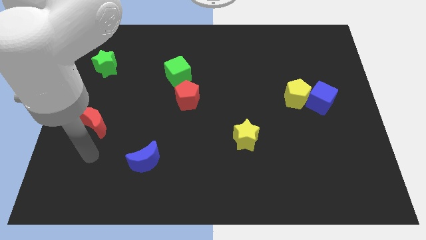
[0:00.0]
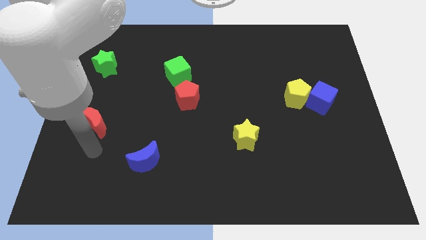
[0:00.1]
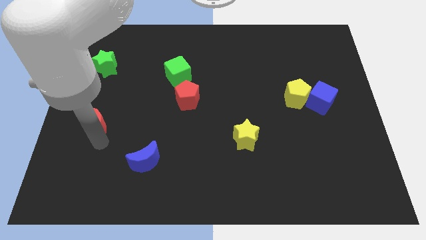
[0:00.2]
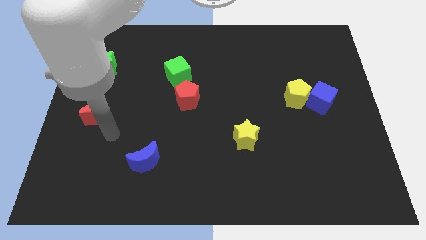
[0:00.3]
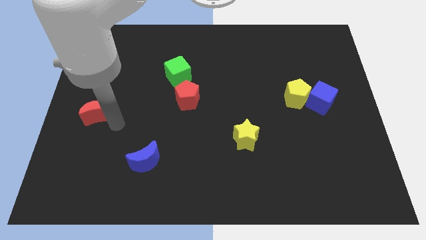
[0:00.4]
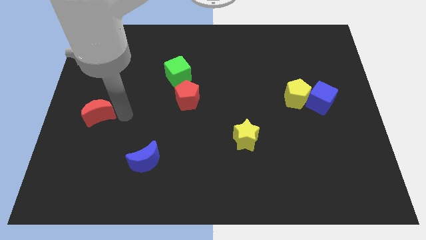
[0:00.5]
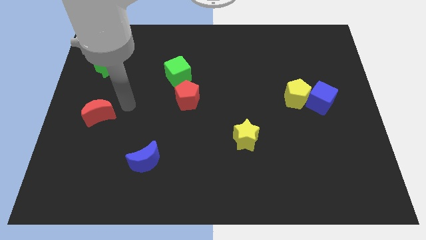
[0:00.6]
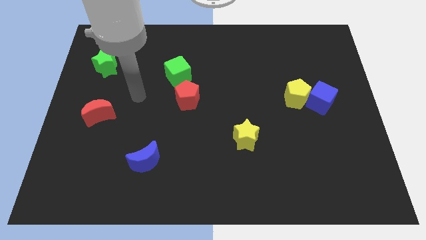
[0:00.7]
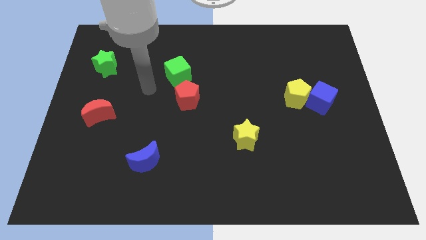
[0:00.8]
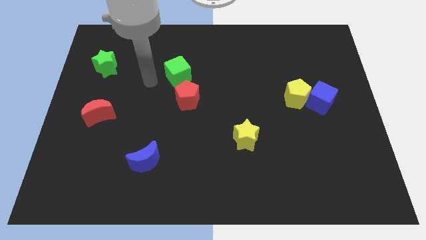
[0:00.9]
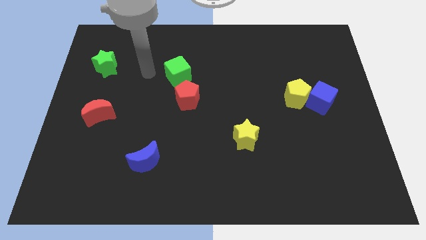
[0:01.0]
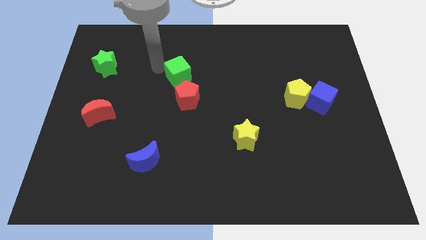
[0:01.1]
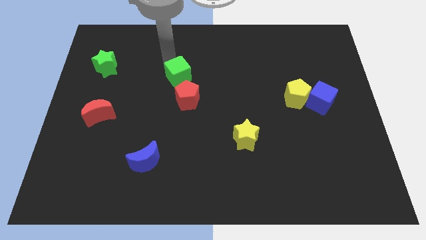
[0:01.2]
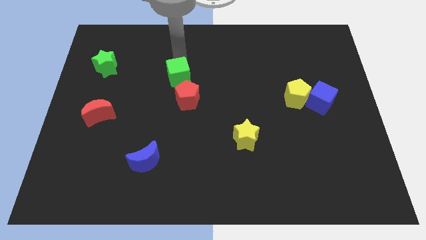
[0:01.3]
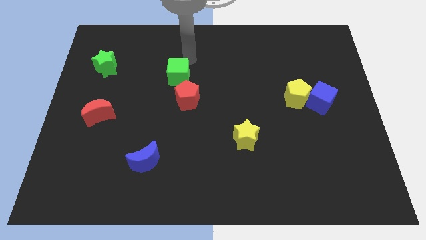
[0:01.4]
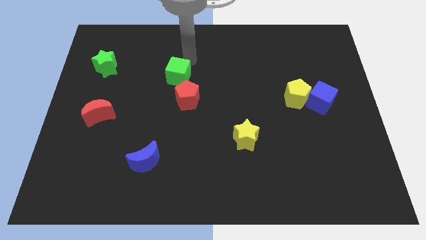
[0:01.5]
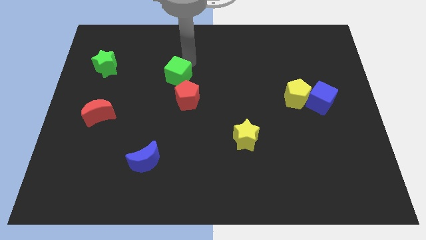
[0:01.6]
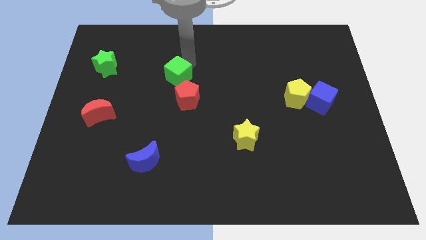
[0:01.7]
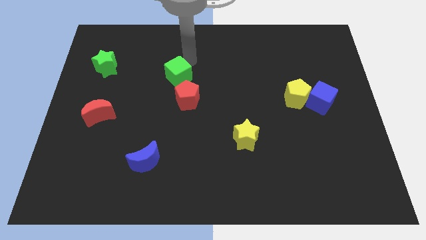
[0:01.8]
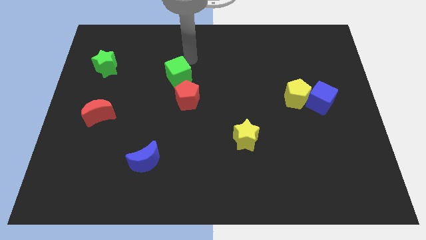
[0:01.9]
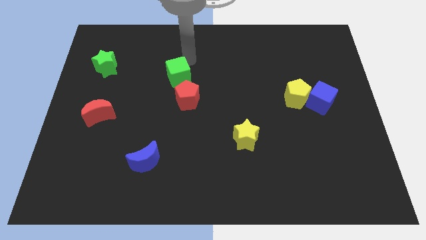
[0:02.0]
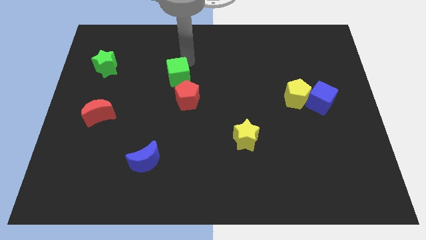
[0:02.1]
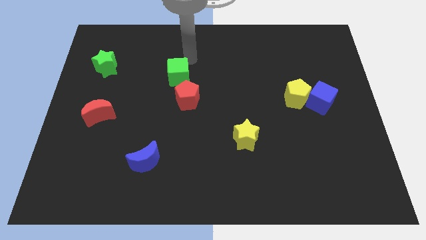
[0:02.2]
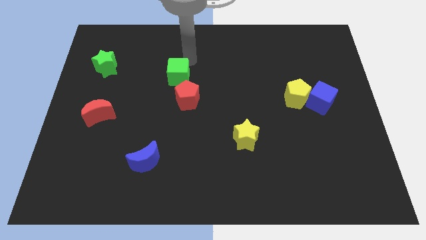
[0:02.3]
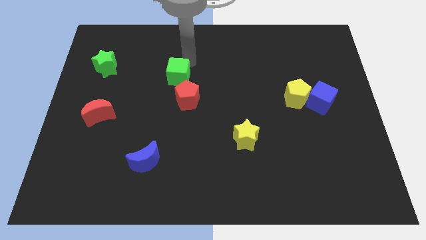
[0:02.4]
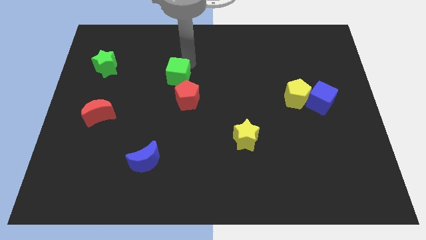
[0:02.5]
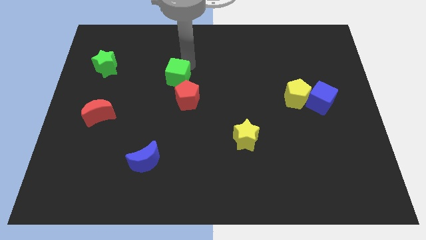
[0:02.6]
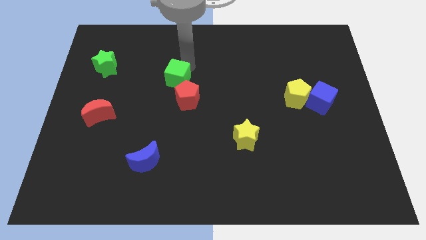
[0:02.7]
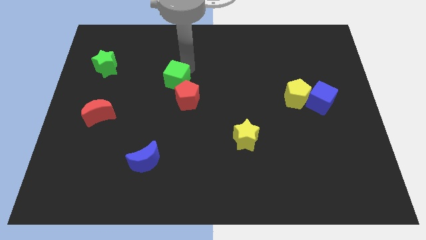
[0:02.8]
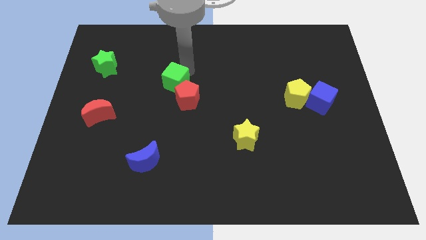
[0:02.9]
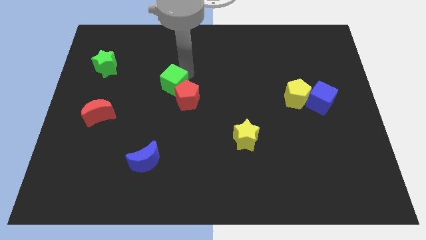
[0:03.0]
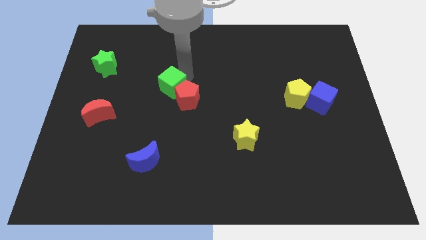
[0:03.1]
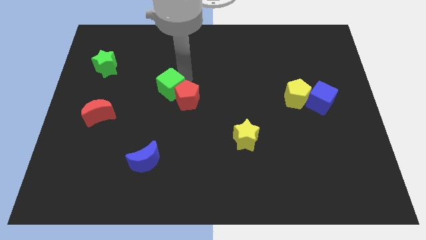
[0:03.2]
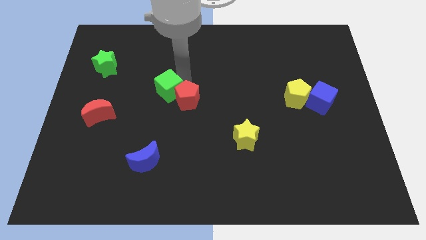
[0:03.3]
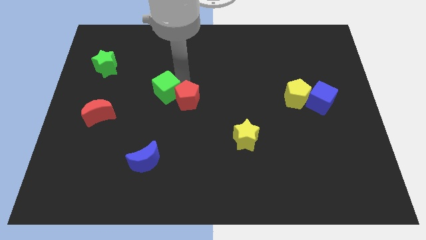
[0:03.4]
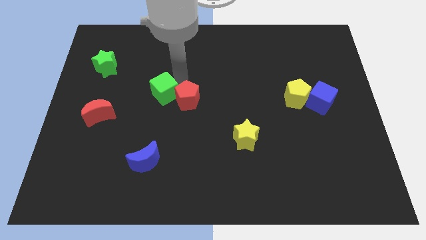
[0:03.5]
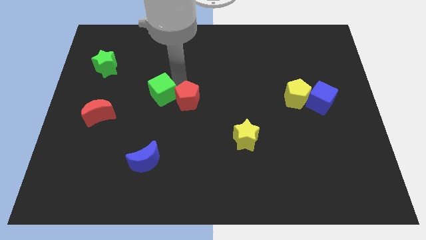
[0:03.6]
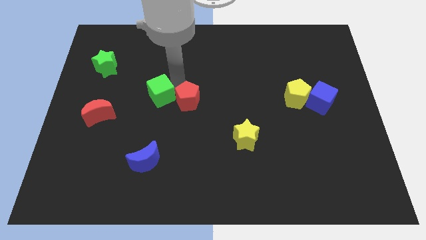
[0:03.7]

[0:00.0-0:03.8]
slightly slide the green cube diagonally down and left

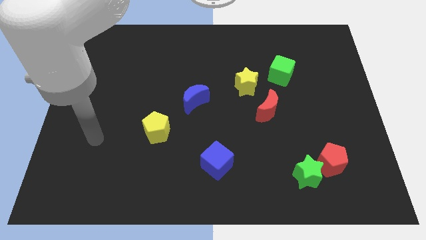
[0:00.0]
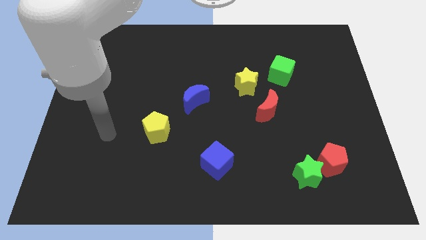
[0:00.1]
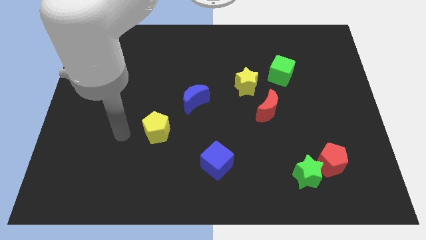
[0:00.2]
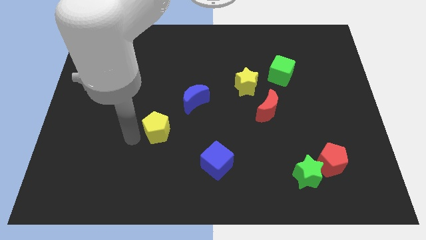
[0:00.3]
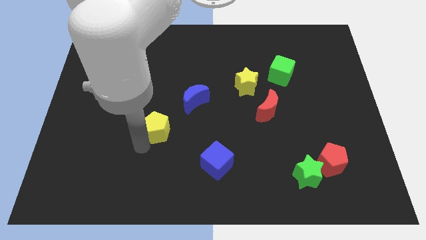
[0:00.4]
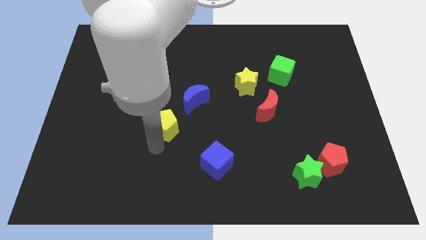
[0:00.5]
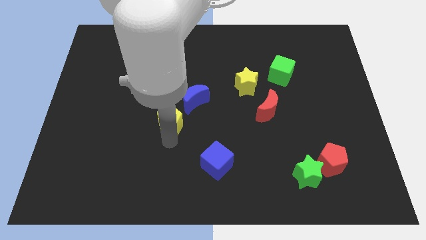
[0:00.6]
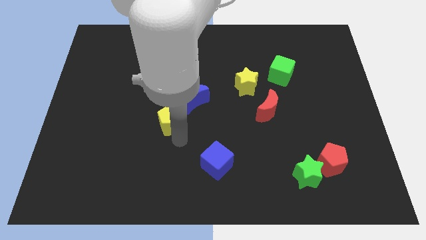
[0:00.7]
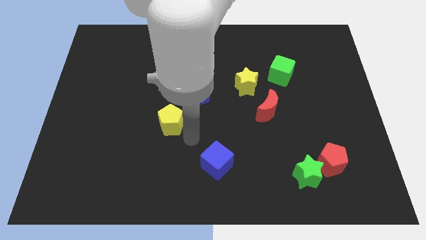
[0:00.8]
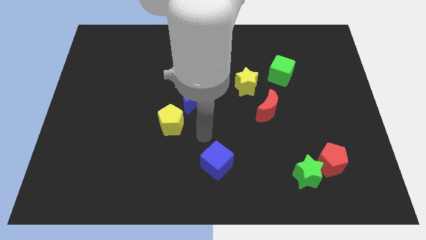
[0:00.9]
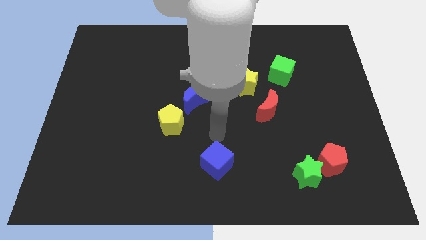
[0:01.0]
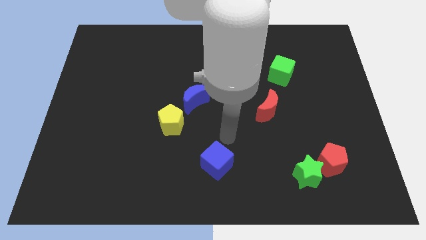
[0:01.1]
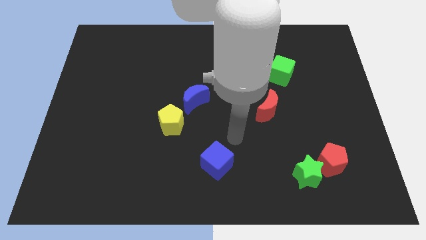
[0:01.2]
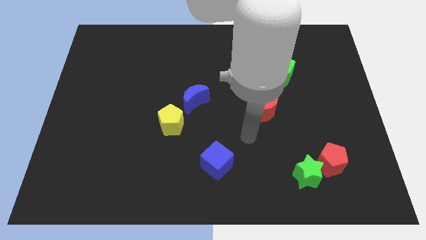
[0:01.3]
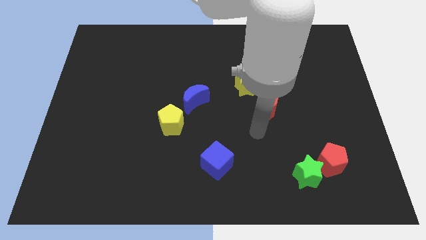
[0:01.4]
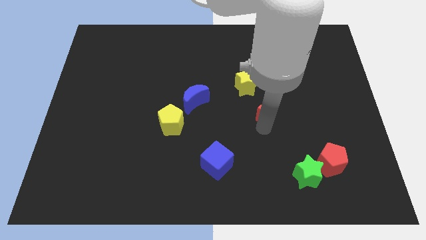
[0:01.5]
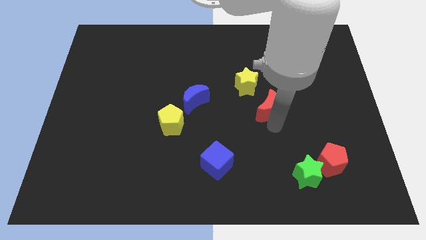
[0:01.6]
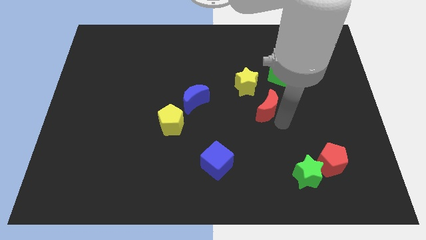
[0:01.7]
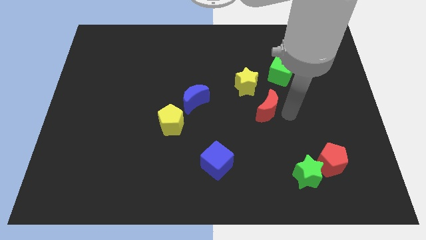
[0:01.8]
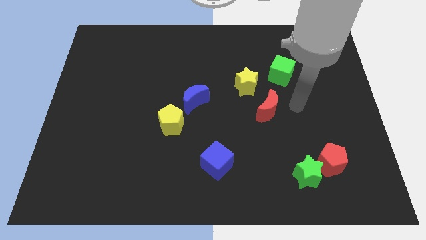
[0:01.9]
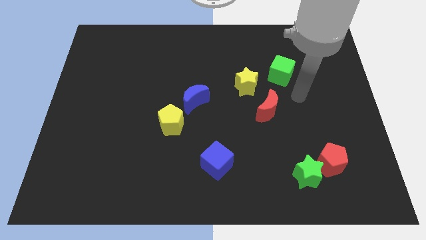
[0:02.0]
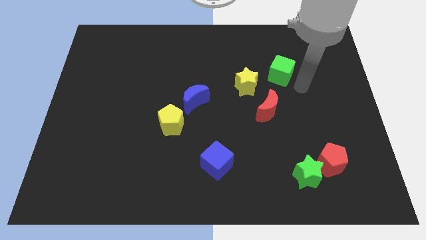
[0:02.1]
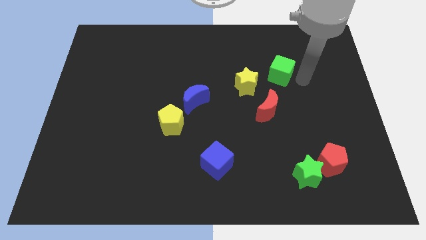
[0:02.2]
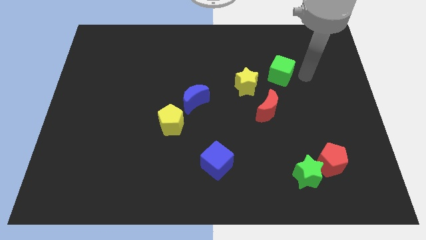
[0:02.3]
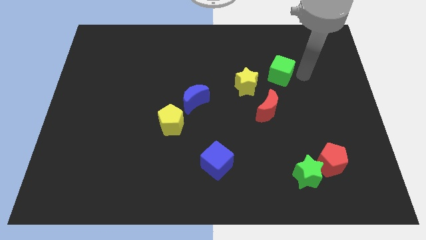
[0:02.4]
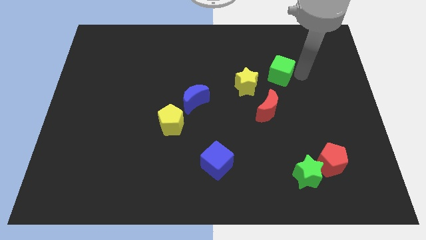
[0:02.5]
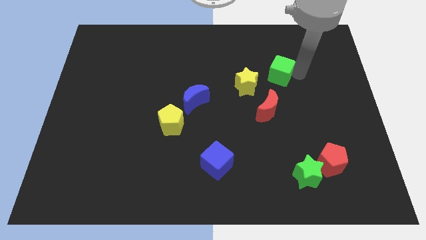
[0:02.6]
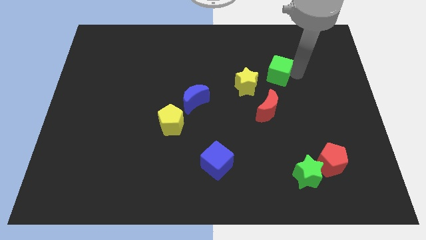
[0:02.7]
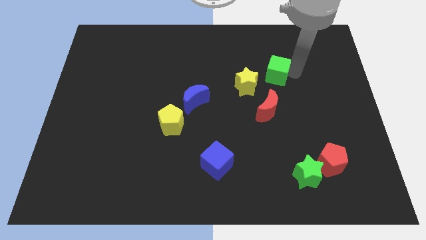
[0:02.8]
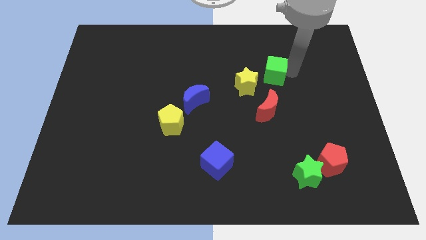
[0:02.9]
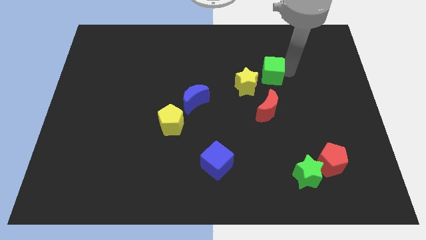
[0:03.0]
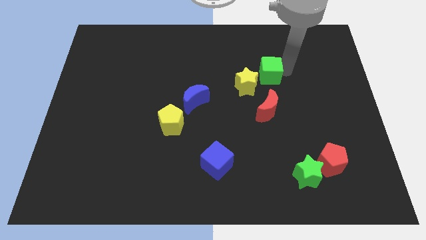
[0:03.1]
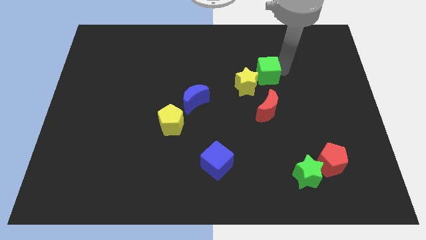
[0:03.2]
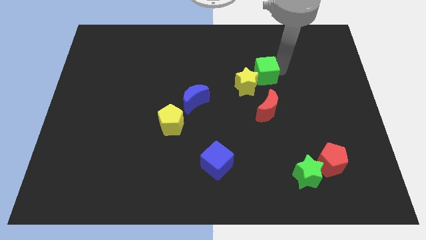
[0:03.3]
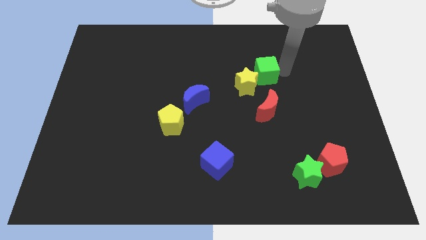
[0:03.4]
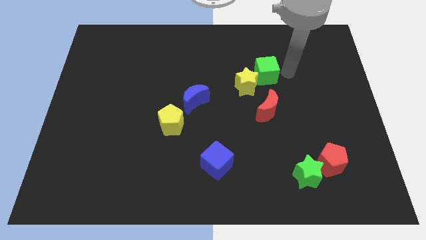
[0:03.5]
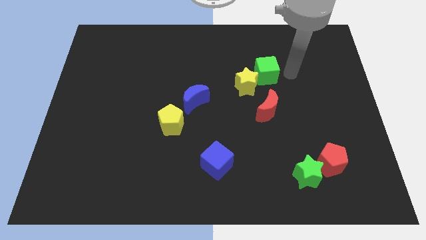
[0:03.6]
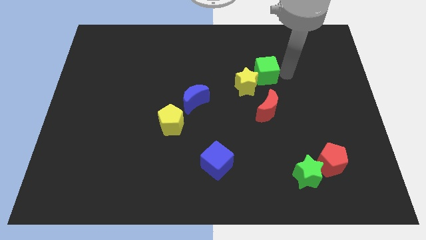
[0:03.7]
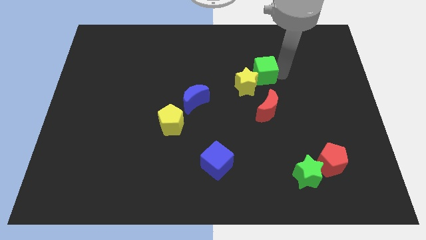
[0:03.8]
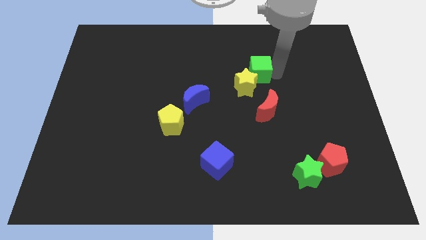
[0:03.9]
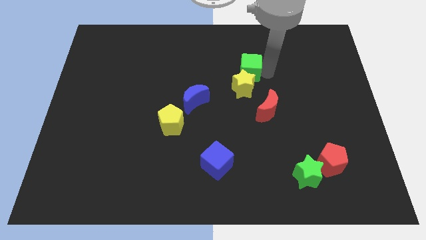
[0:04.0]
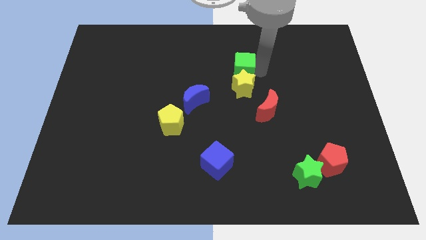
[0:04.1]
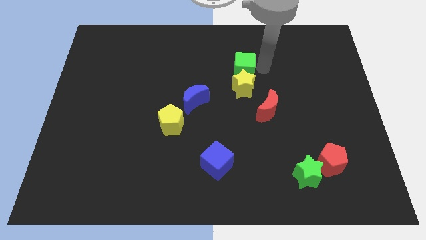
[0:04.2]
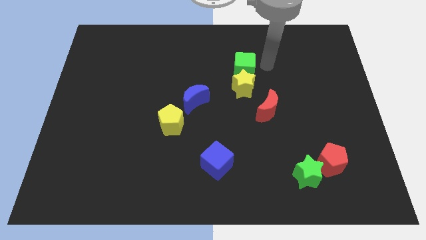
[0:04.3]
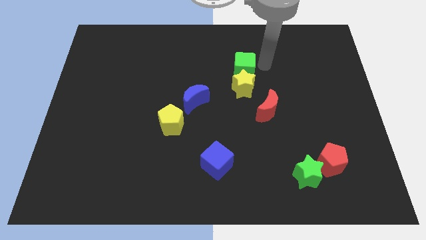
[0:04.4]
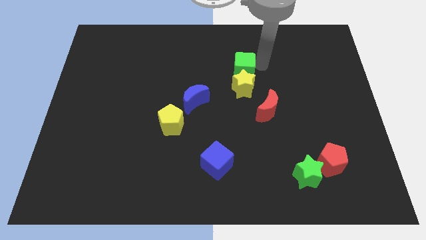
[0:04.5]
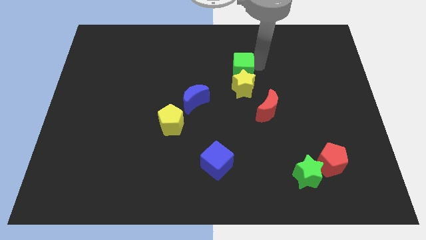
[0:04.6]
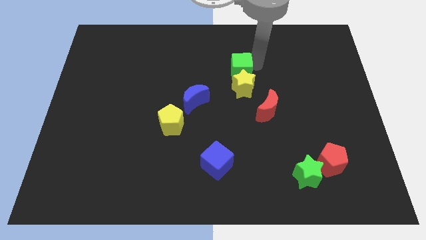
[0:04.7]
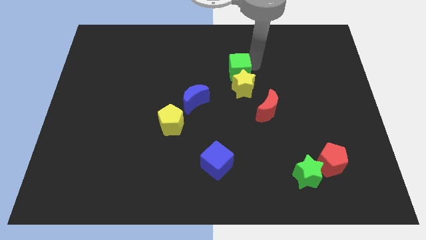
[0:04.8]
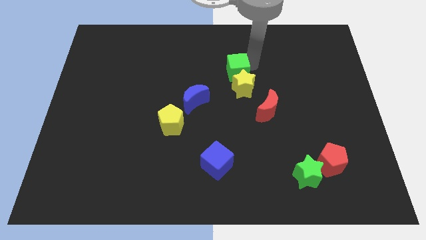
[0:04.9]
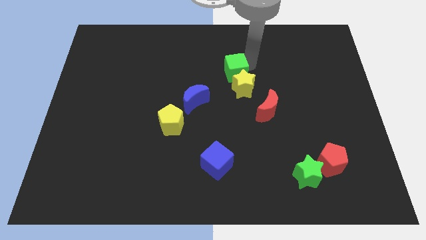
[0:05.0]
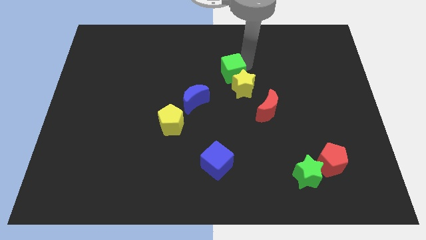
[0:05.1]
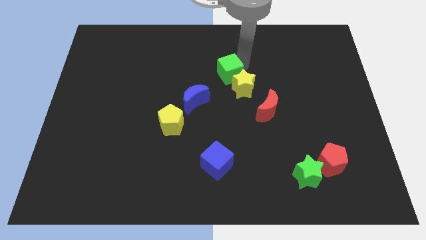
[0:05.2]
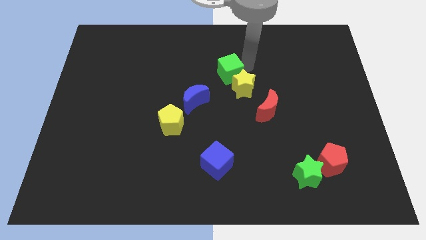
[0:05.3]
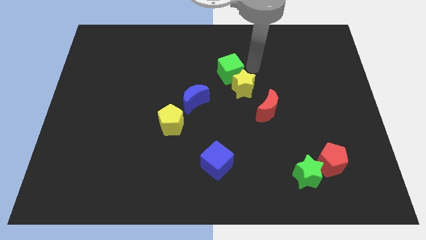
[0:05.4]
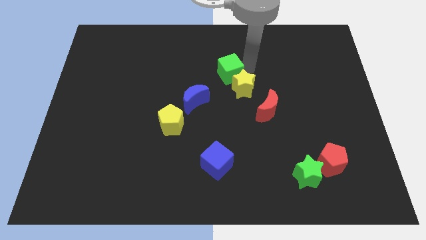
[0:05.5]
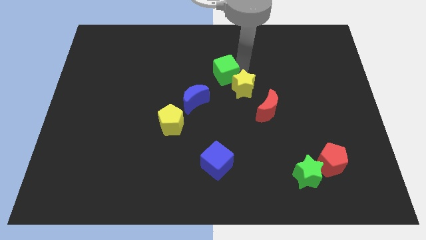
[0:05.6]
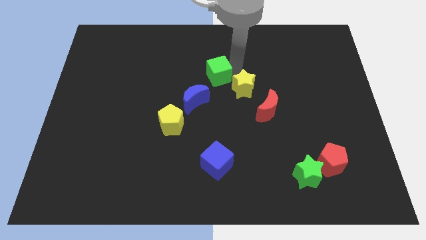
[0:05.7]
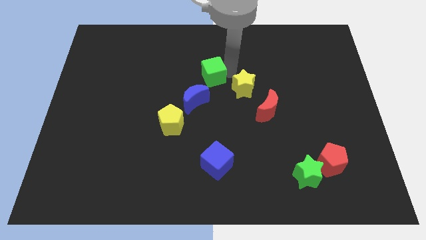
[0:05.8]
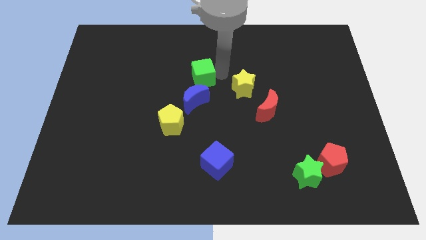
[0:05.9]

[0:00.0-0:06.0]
move the green cube left
